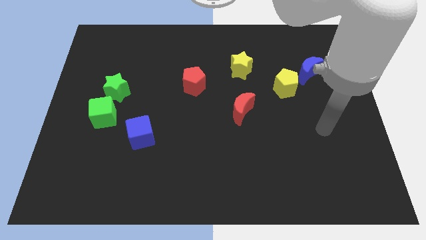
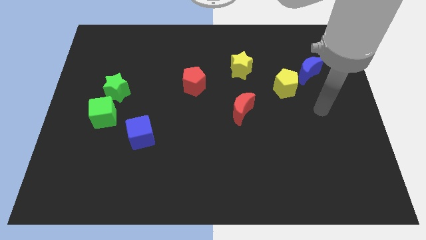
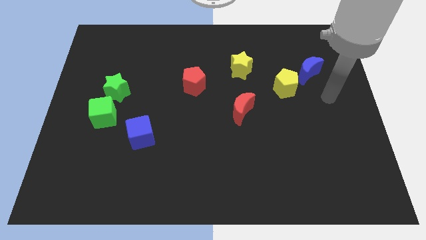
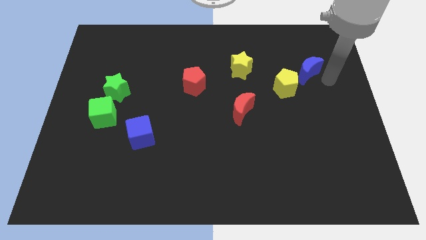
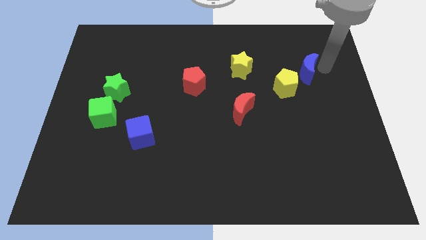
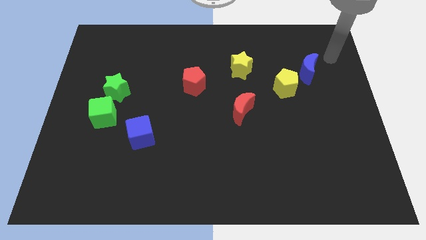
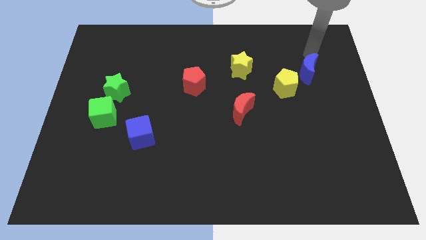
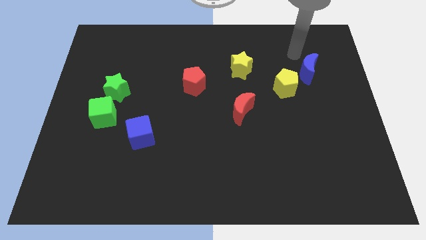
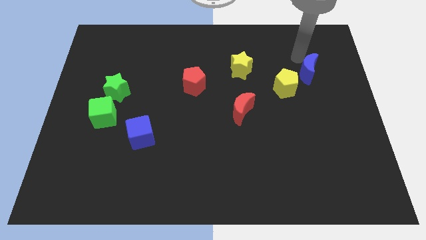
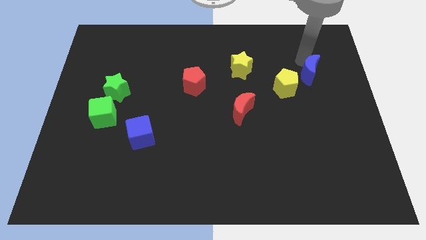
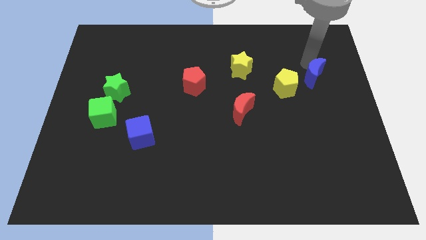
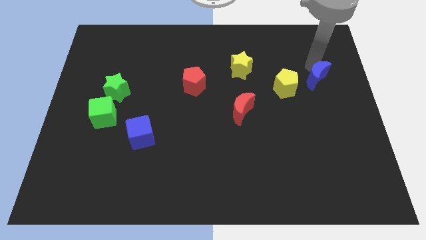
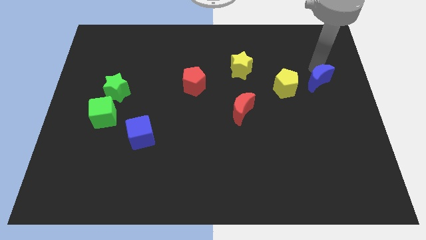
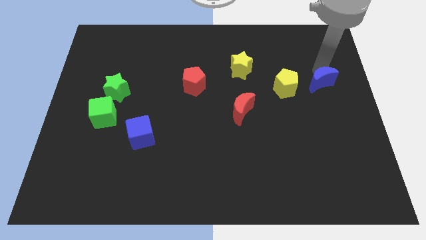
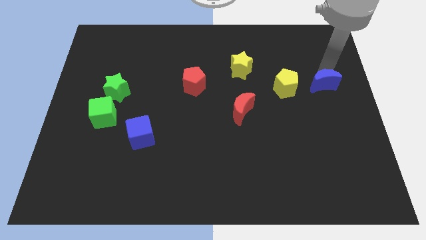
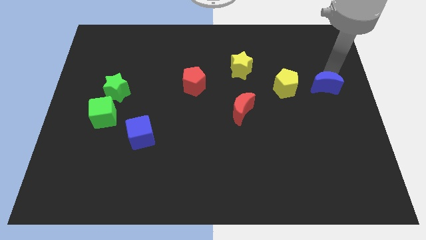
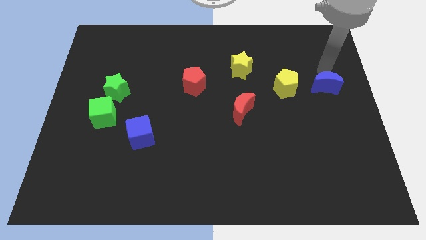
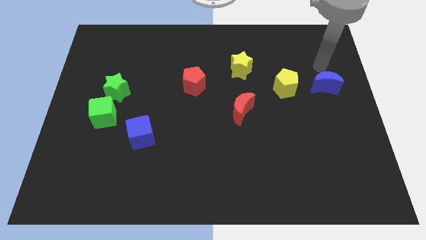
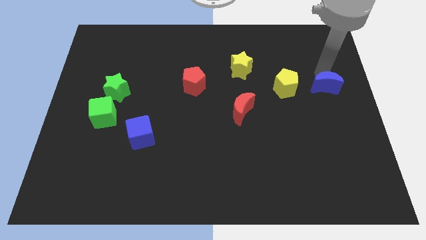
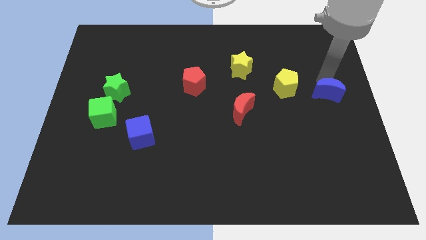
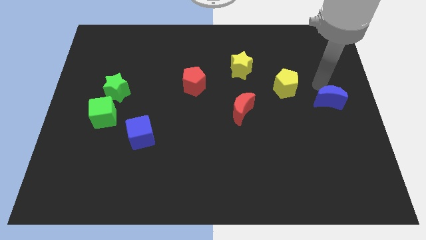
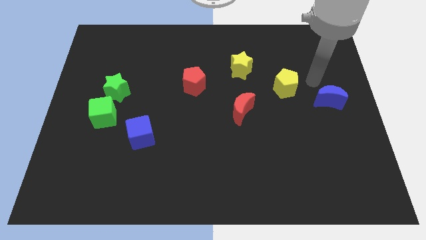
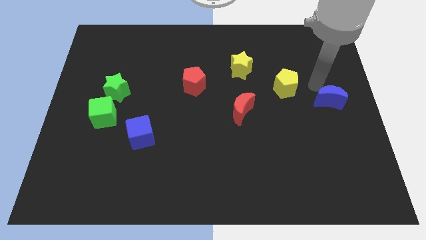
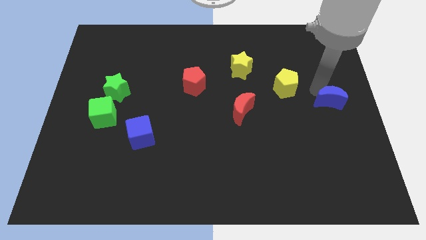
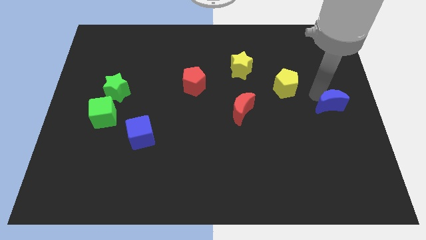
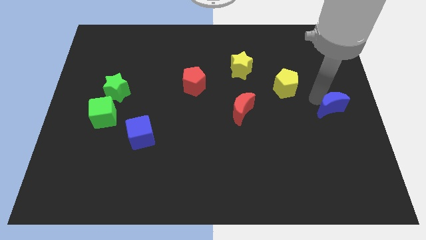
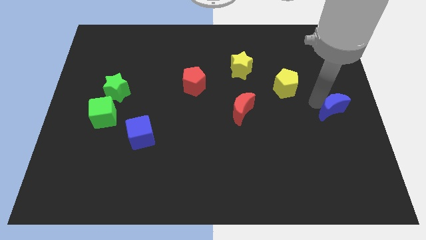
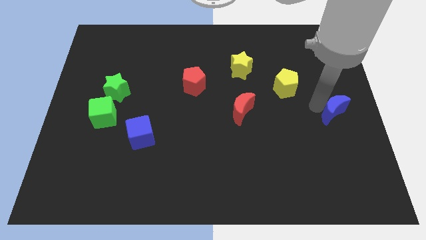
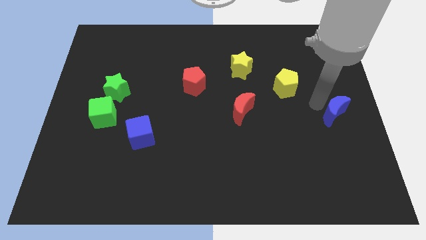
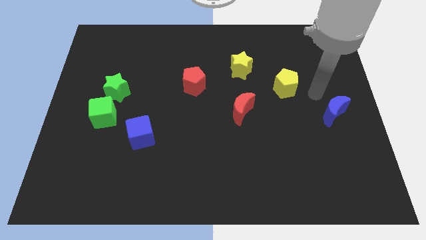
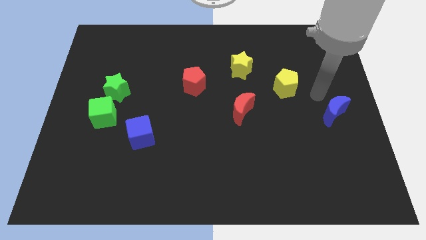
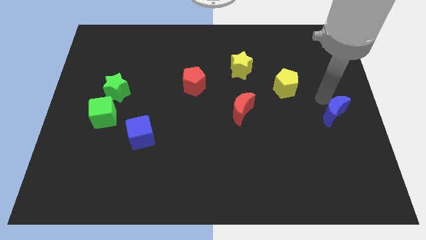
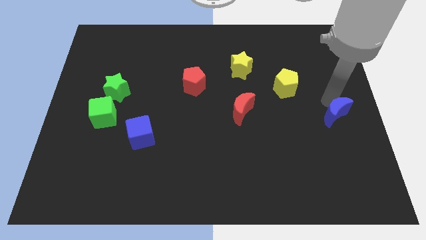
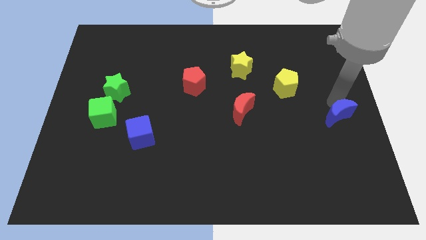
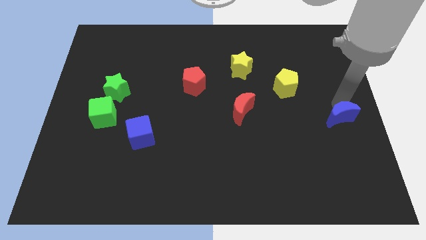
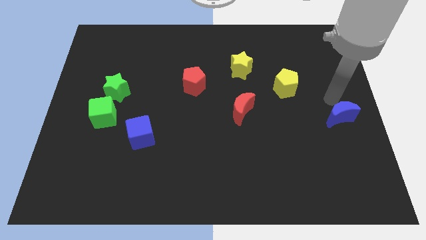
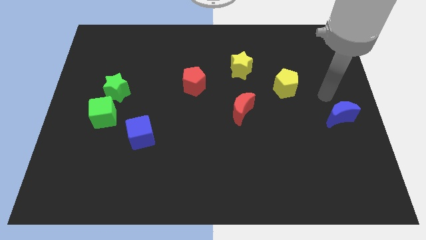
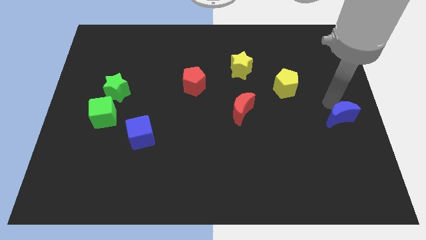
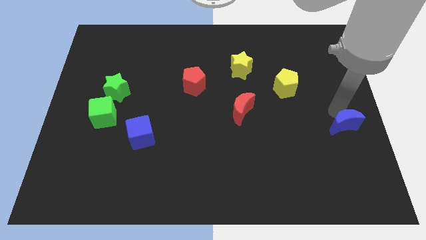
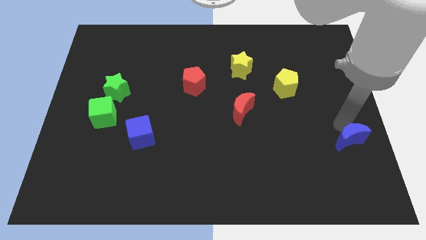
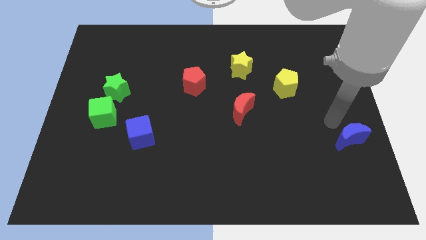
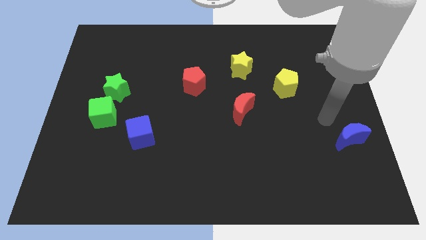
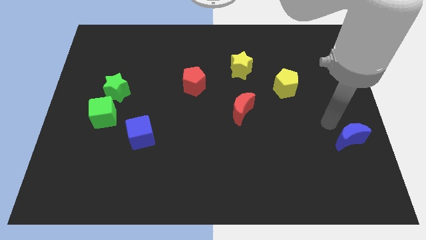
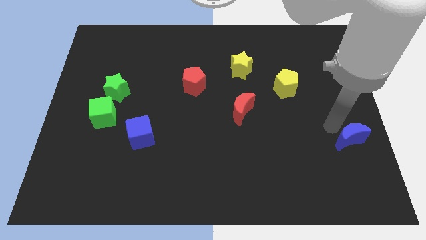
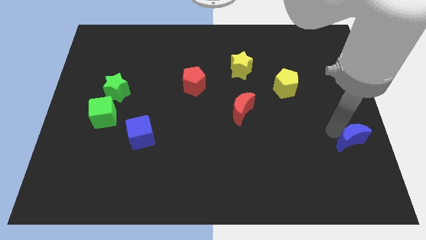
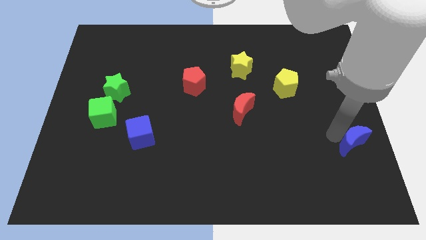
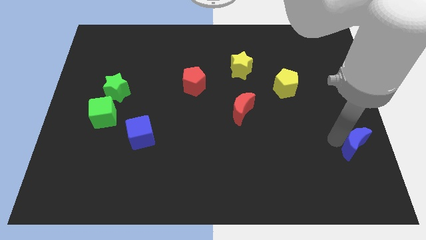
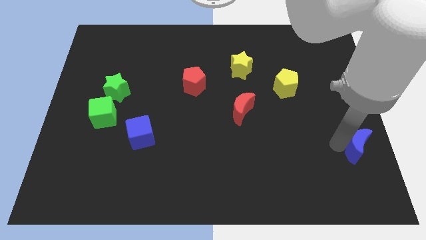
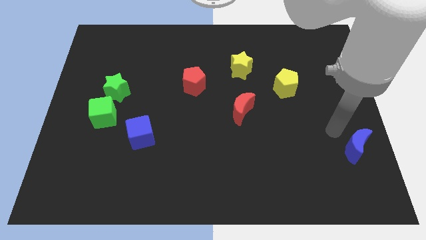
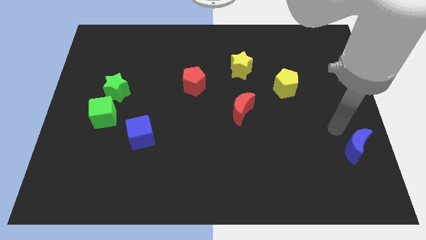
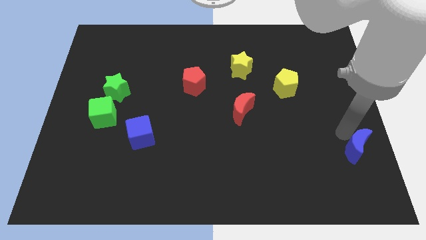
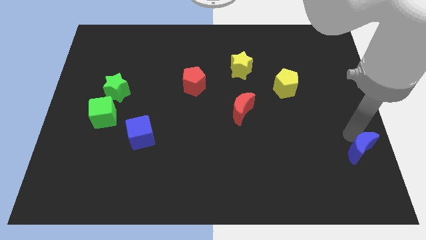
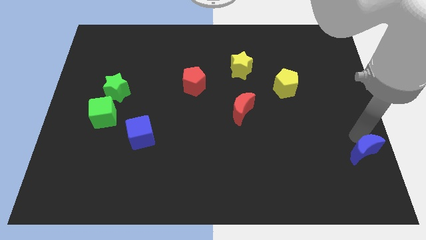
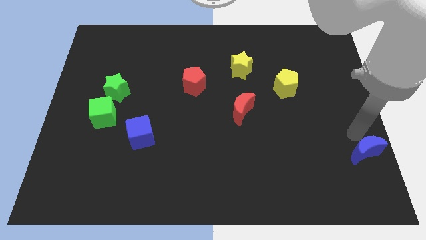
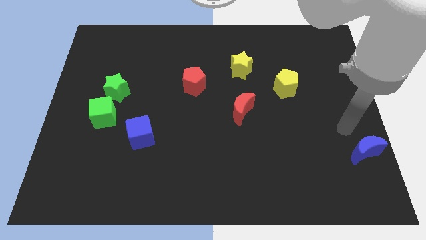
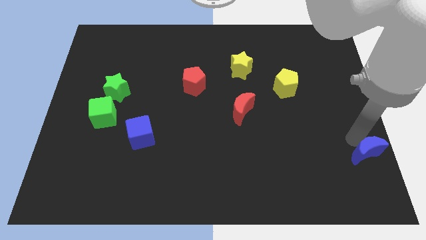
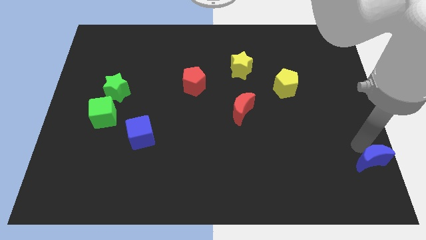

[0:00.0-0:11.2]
put the blue moon to the bottom right
